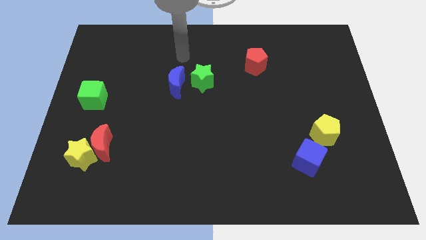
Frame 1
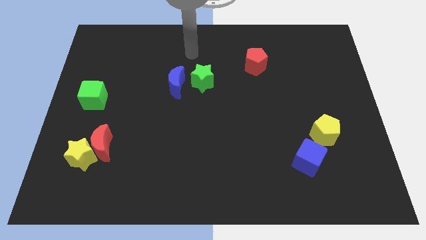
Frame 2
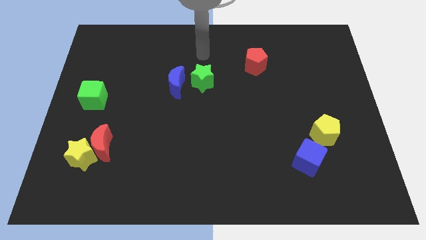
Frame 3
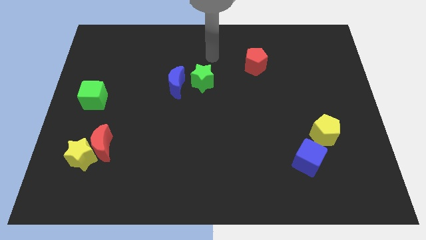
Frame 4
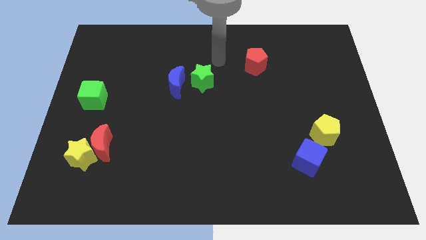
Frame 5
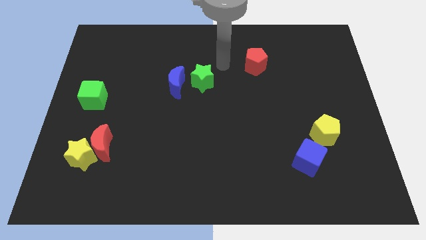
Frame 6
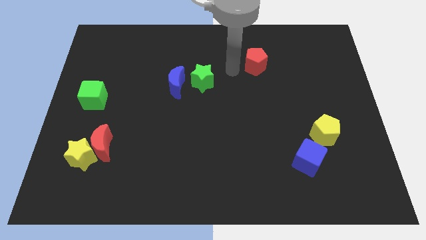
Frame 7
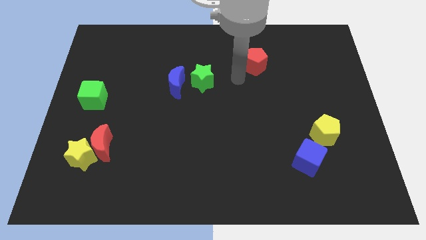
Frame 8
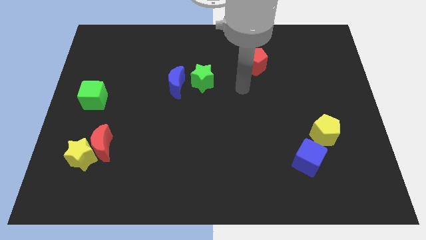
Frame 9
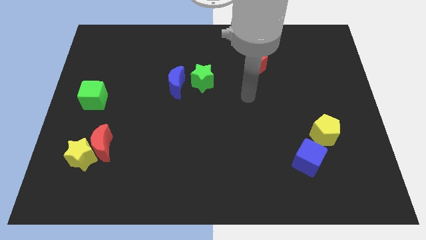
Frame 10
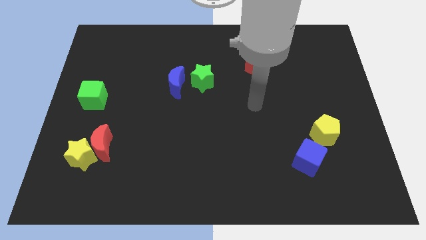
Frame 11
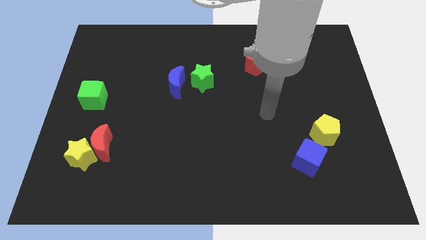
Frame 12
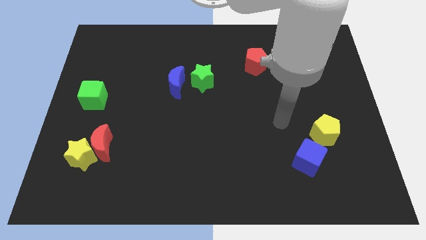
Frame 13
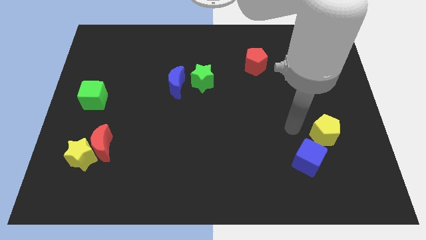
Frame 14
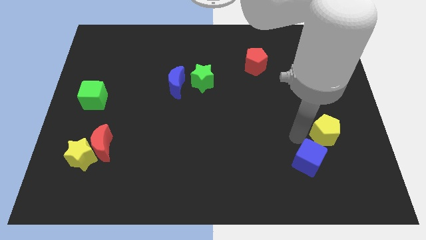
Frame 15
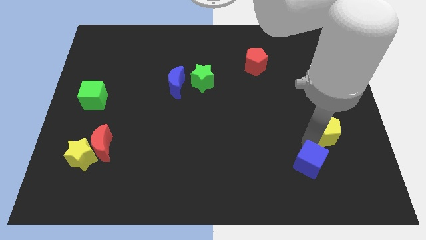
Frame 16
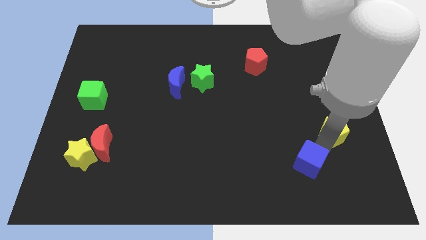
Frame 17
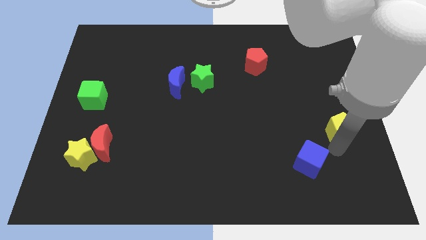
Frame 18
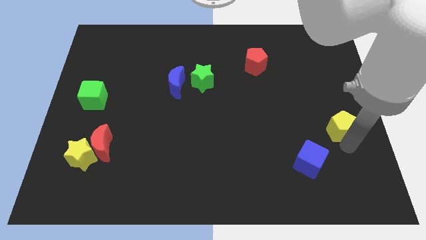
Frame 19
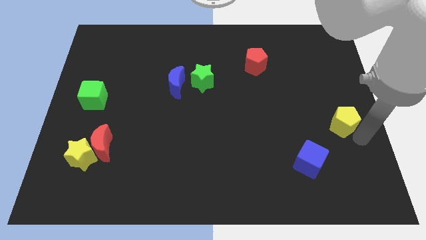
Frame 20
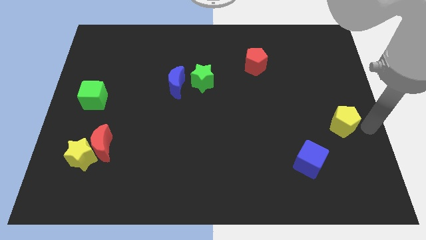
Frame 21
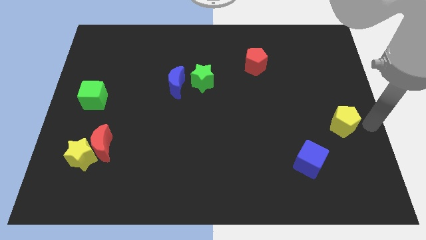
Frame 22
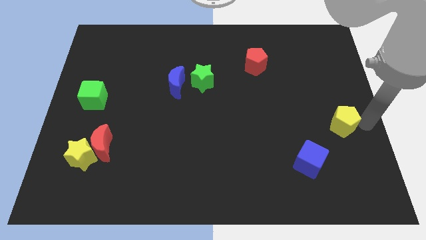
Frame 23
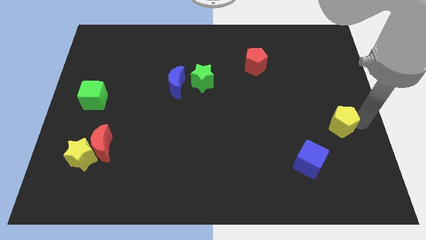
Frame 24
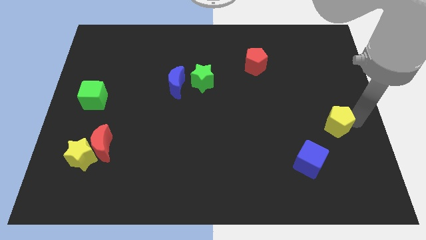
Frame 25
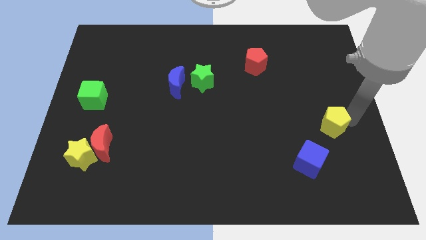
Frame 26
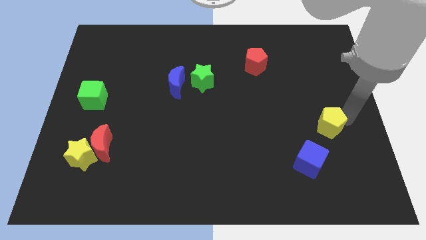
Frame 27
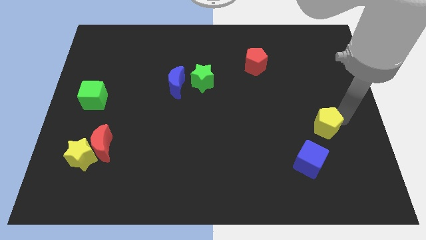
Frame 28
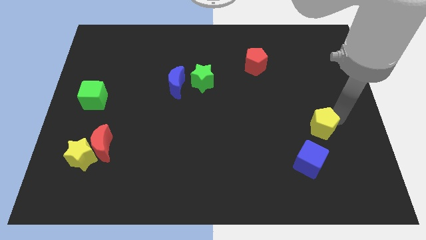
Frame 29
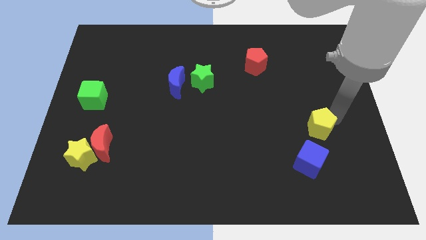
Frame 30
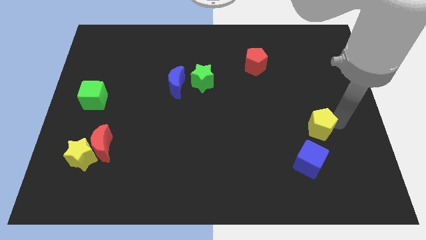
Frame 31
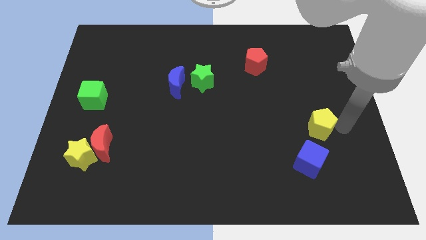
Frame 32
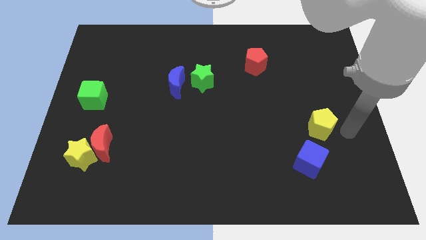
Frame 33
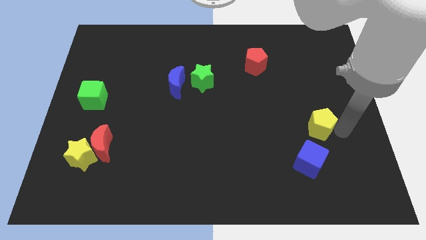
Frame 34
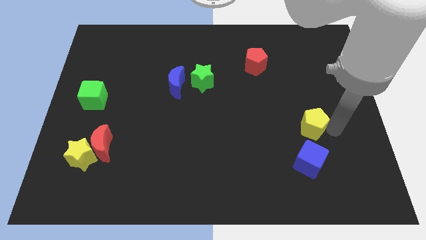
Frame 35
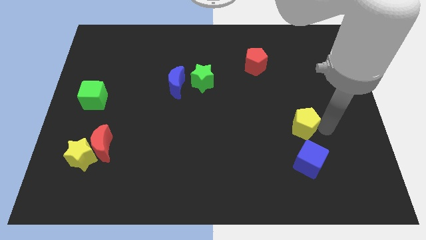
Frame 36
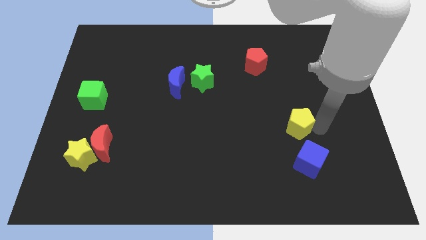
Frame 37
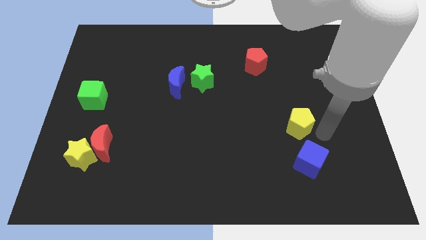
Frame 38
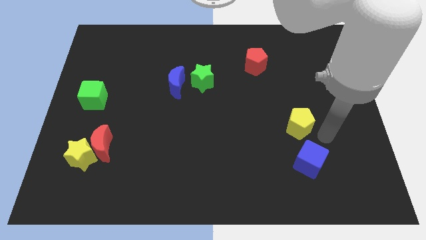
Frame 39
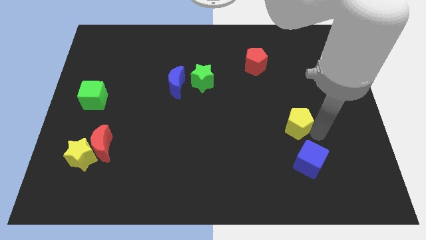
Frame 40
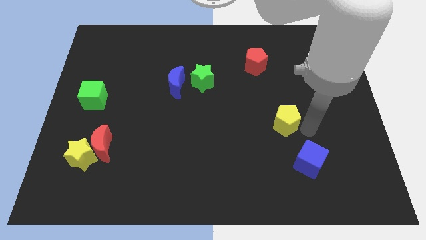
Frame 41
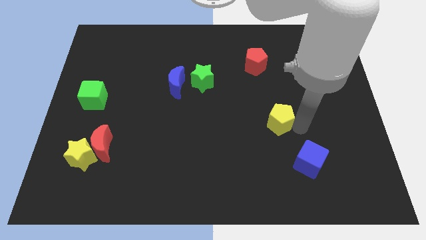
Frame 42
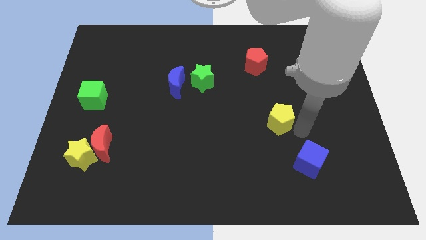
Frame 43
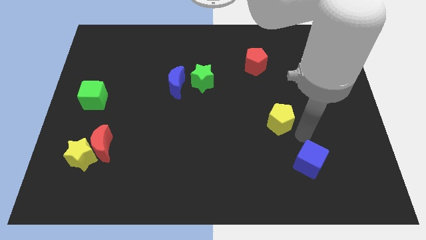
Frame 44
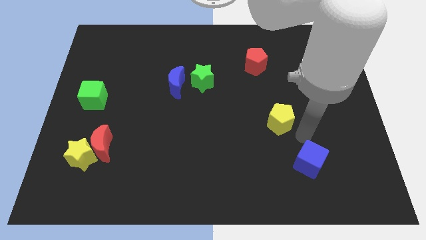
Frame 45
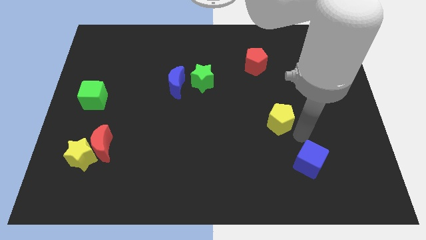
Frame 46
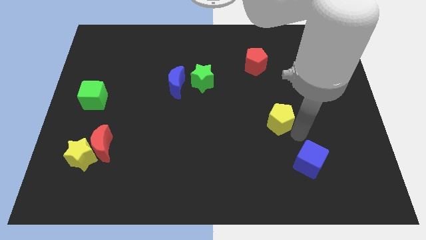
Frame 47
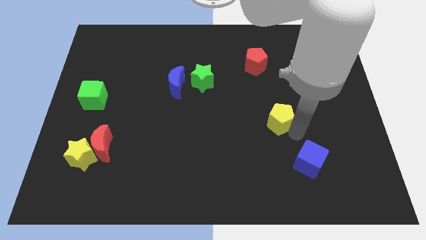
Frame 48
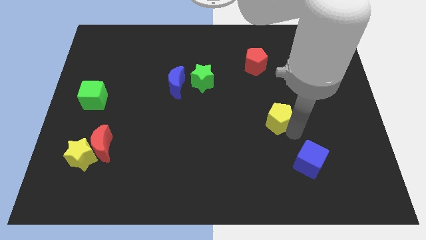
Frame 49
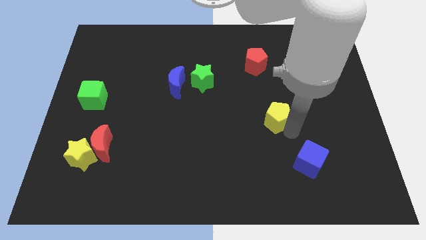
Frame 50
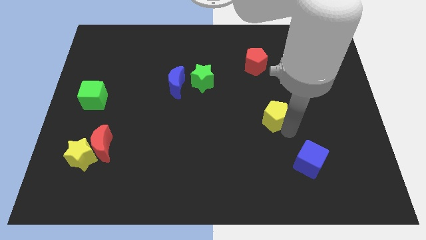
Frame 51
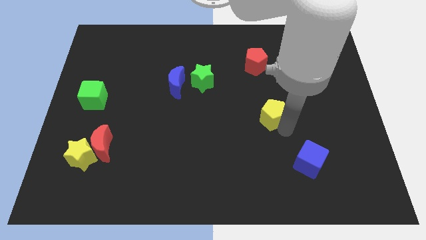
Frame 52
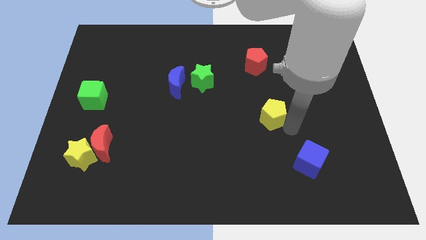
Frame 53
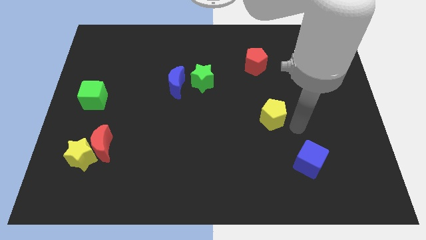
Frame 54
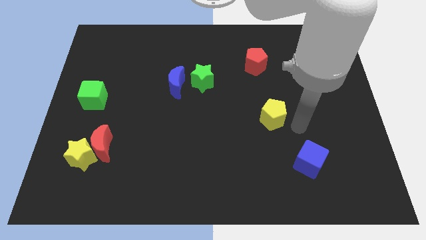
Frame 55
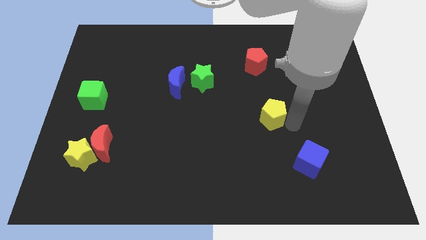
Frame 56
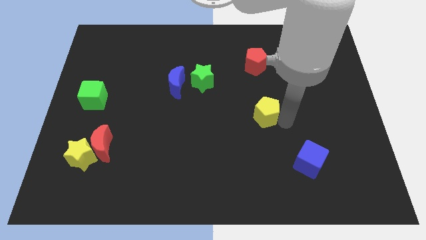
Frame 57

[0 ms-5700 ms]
slide the yellow pentagon to the center

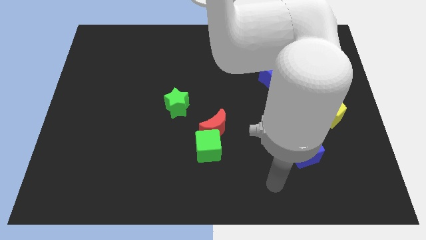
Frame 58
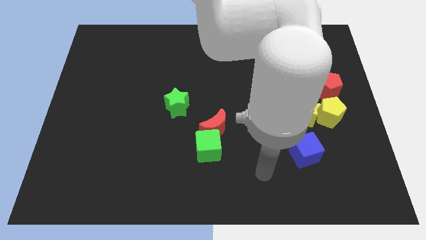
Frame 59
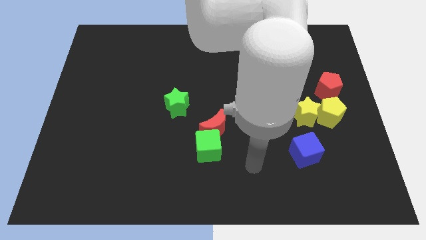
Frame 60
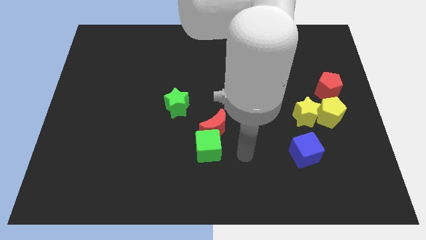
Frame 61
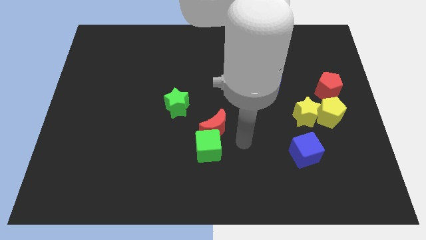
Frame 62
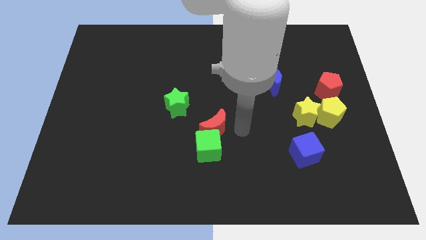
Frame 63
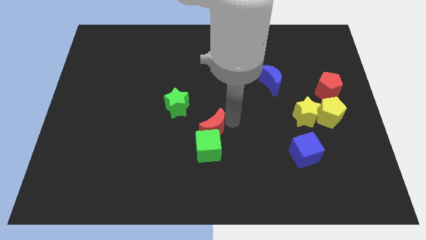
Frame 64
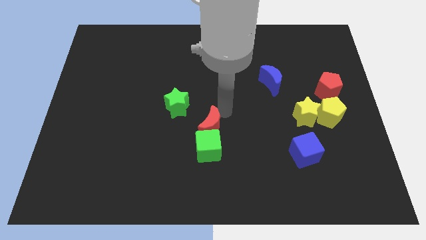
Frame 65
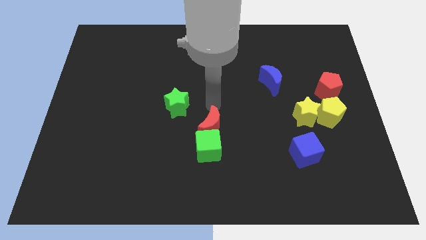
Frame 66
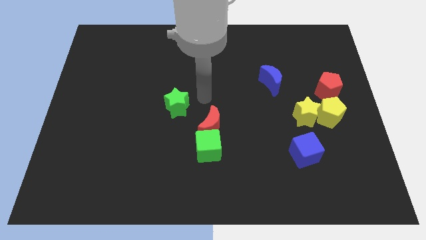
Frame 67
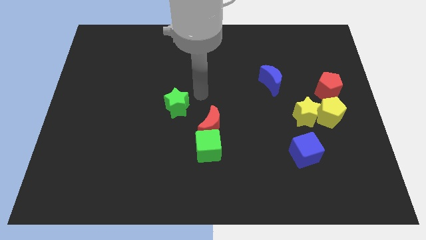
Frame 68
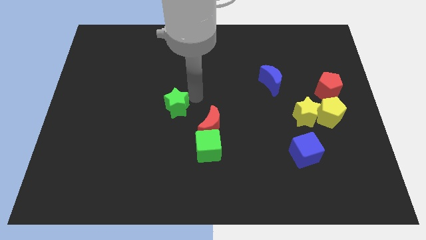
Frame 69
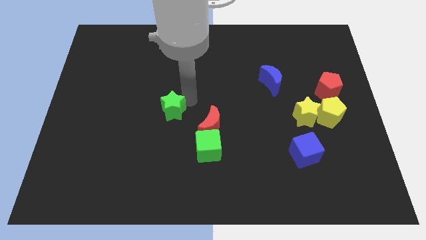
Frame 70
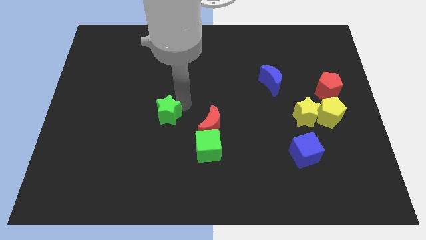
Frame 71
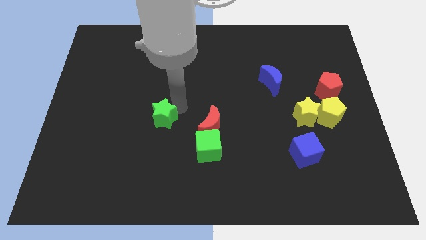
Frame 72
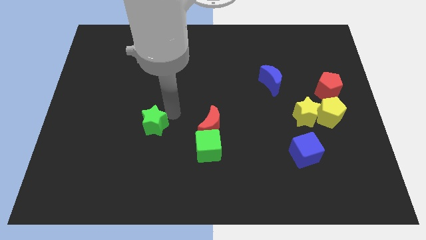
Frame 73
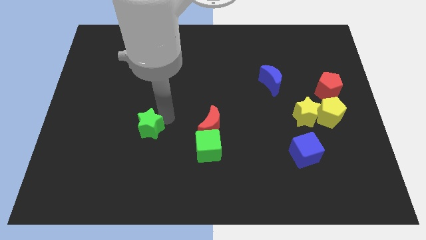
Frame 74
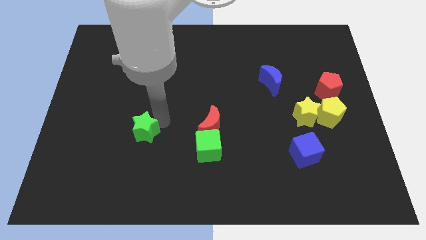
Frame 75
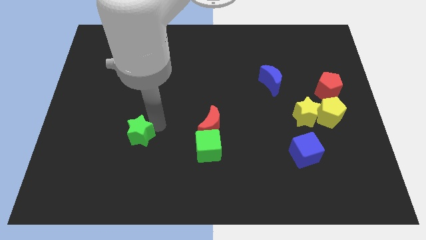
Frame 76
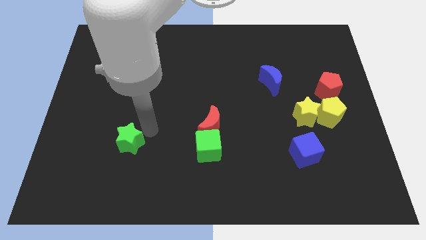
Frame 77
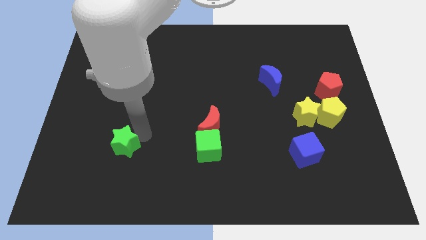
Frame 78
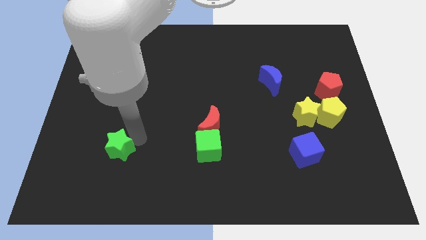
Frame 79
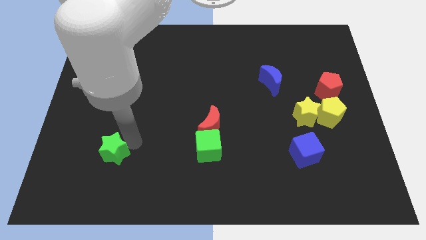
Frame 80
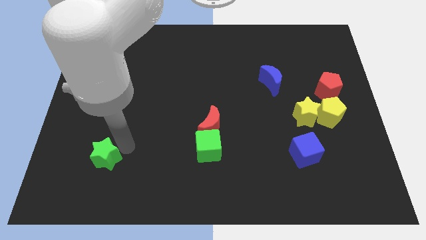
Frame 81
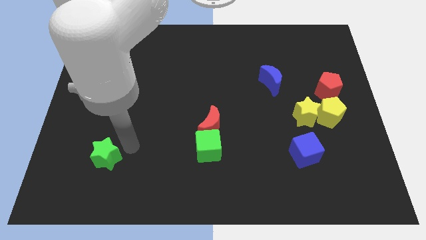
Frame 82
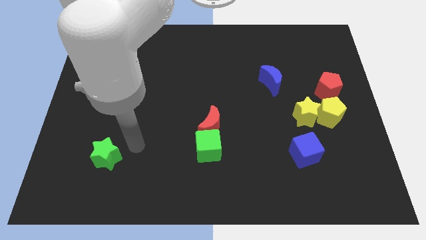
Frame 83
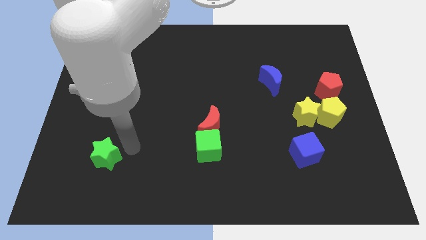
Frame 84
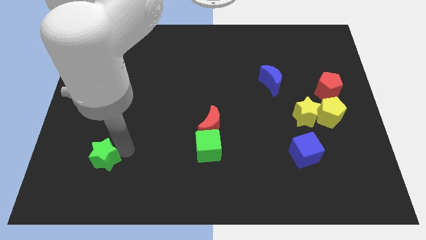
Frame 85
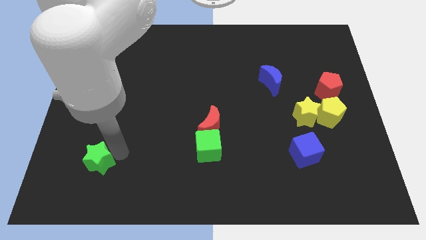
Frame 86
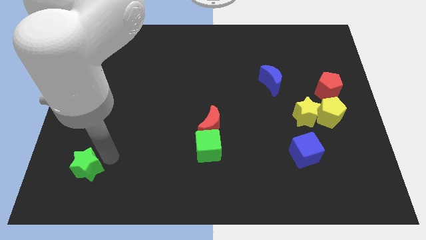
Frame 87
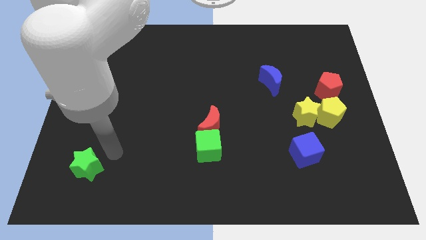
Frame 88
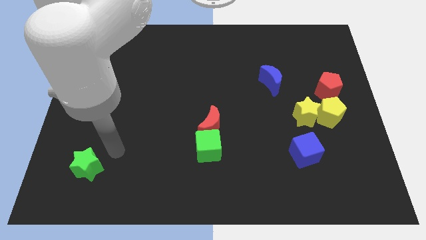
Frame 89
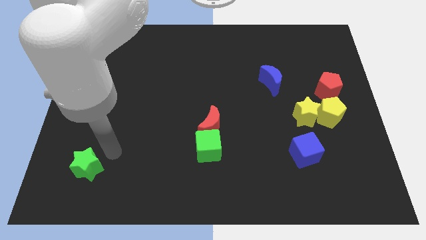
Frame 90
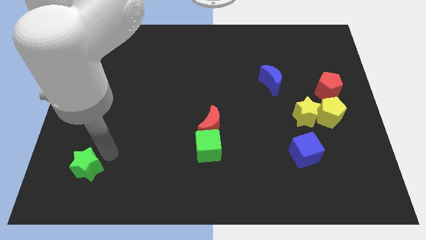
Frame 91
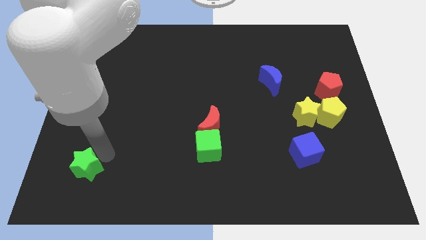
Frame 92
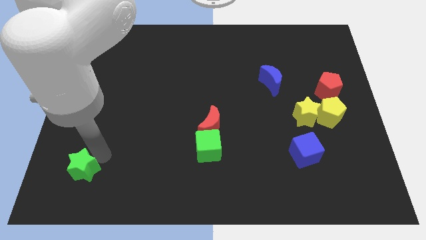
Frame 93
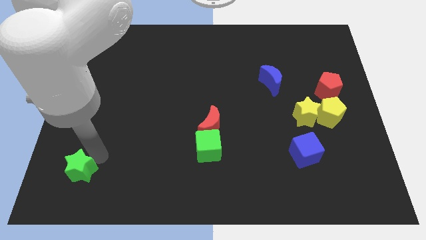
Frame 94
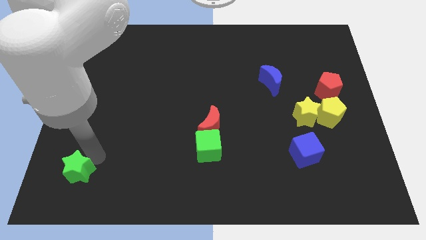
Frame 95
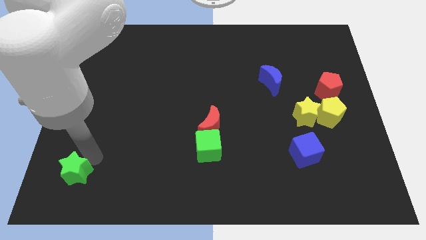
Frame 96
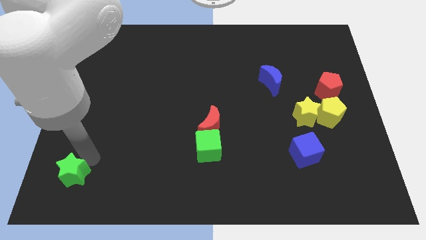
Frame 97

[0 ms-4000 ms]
put the green star to the bottom left
